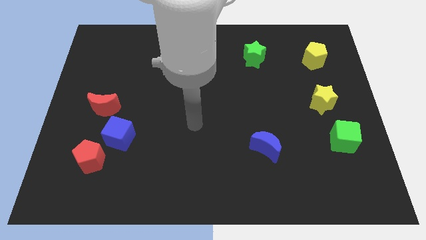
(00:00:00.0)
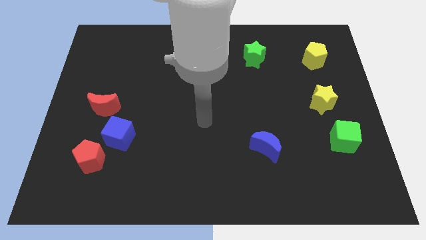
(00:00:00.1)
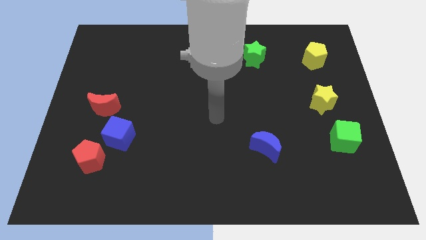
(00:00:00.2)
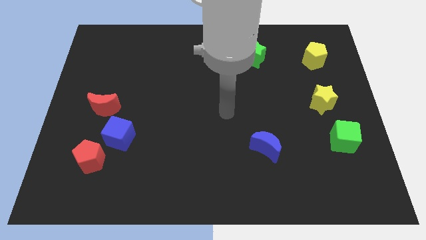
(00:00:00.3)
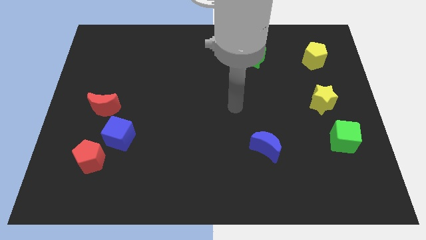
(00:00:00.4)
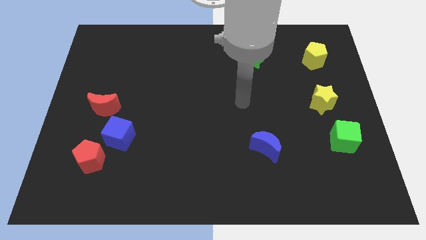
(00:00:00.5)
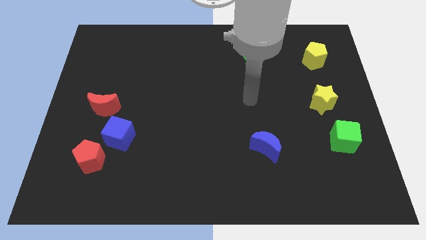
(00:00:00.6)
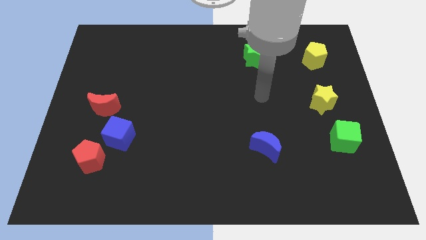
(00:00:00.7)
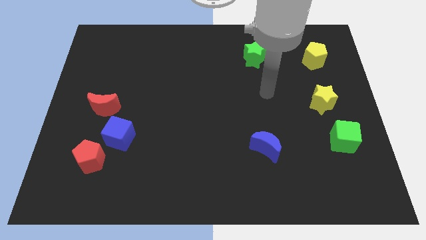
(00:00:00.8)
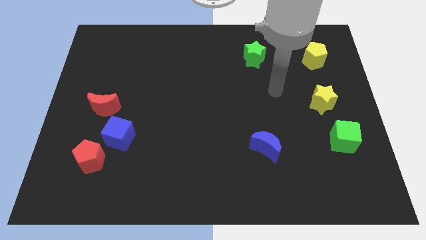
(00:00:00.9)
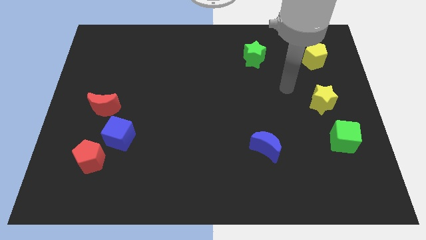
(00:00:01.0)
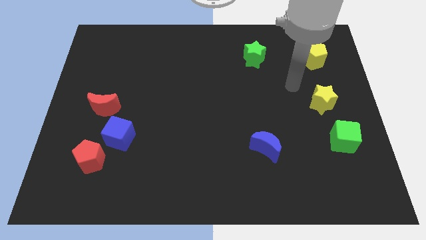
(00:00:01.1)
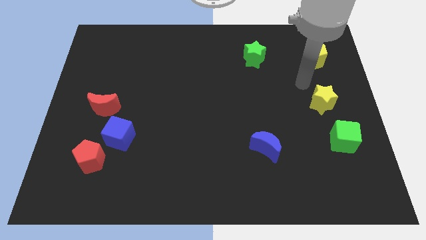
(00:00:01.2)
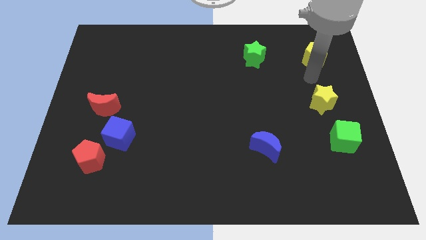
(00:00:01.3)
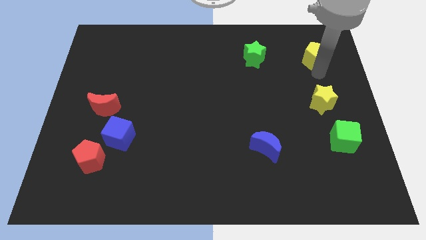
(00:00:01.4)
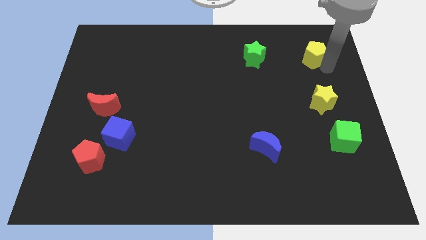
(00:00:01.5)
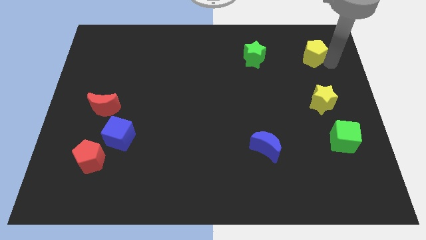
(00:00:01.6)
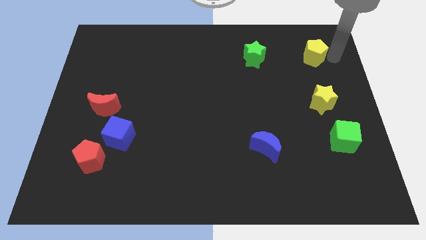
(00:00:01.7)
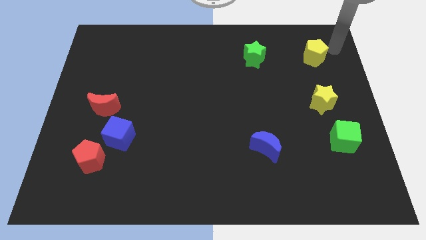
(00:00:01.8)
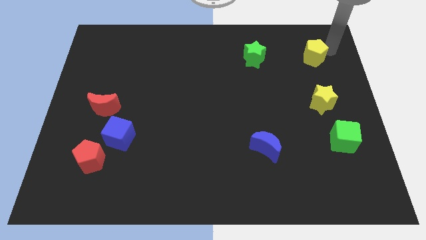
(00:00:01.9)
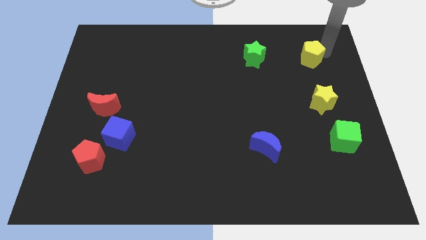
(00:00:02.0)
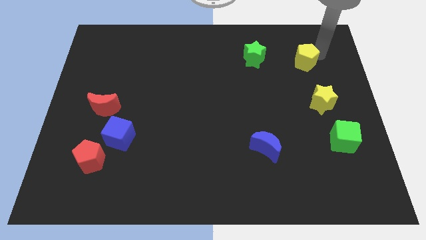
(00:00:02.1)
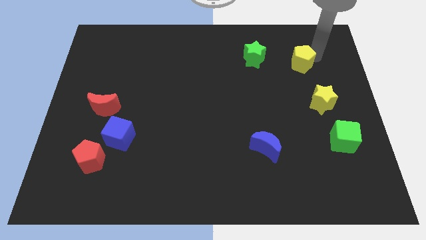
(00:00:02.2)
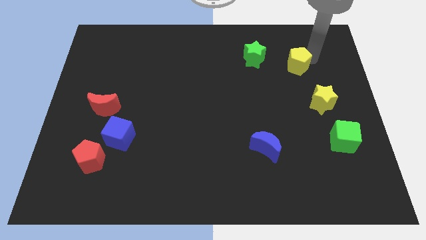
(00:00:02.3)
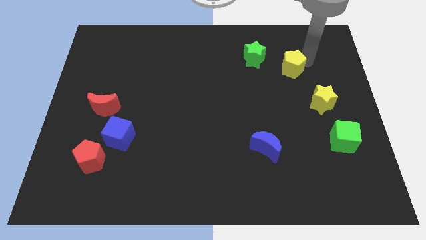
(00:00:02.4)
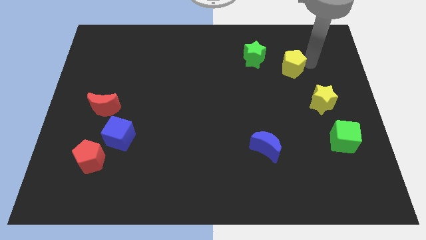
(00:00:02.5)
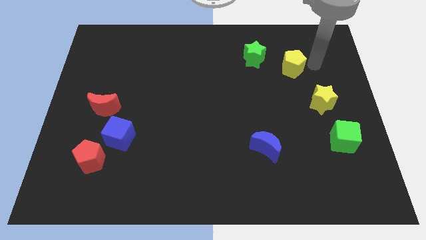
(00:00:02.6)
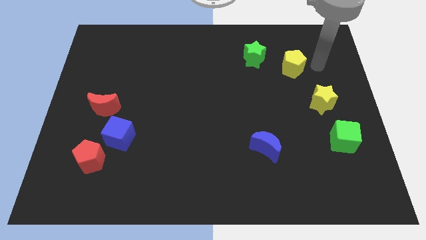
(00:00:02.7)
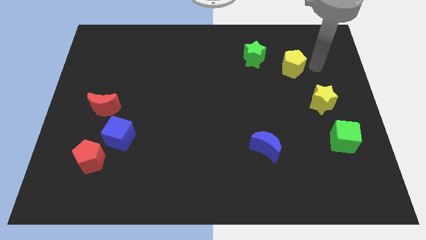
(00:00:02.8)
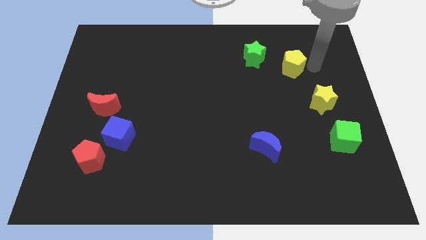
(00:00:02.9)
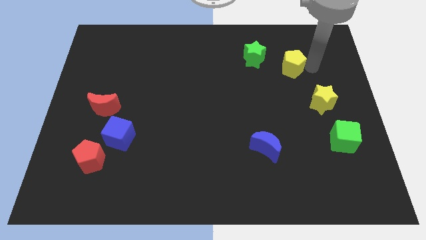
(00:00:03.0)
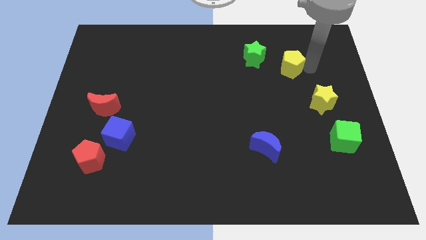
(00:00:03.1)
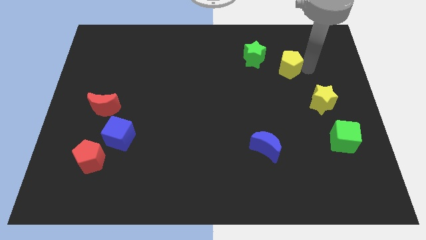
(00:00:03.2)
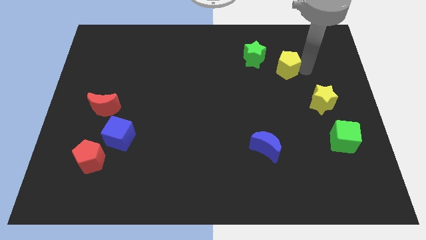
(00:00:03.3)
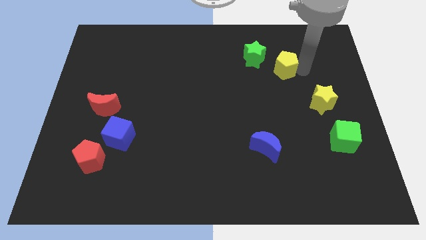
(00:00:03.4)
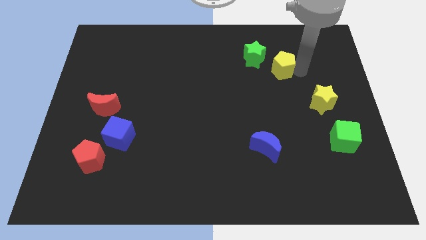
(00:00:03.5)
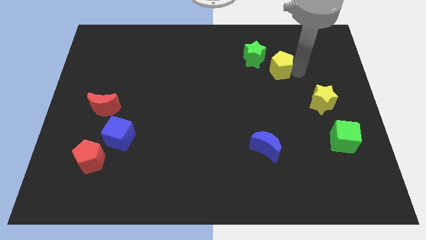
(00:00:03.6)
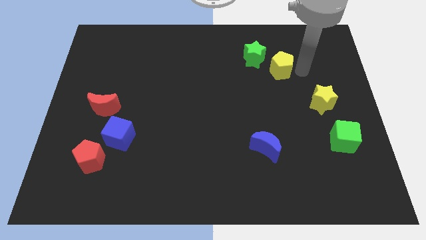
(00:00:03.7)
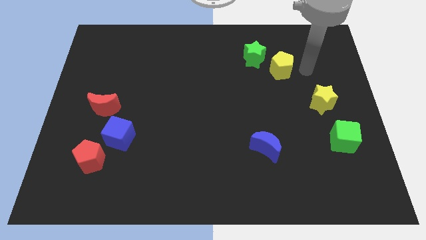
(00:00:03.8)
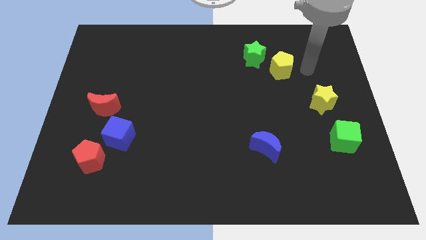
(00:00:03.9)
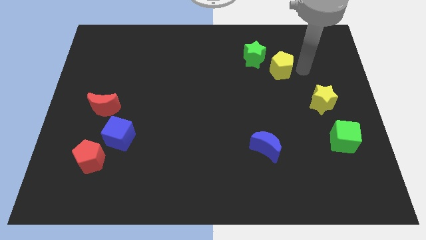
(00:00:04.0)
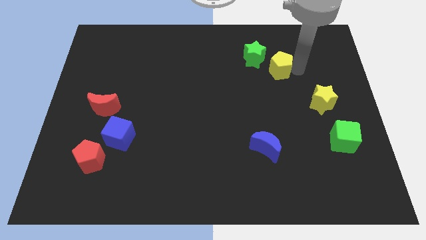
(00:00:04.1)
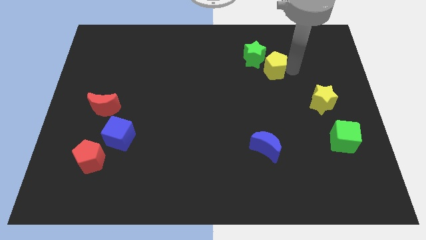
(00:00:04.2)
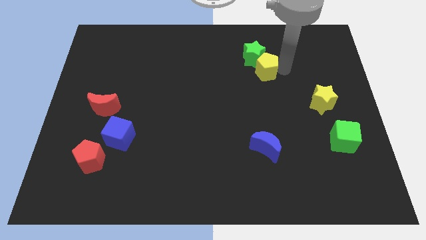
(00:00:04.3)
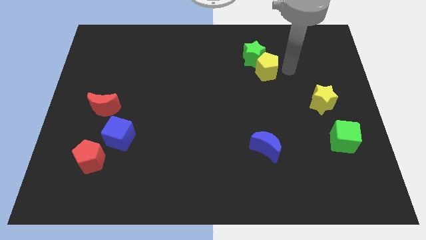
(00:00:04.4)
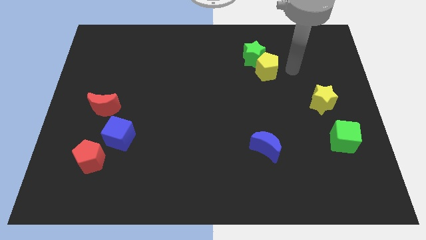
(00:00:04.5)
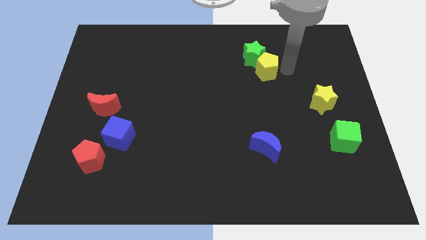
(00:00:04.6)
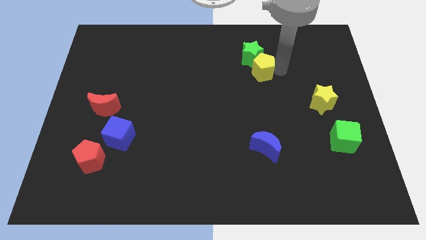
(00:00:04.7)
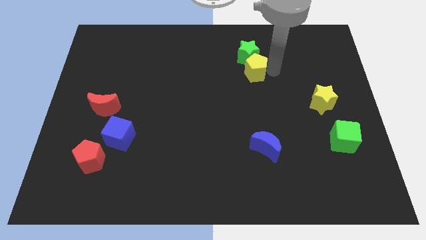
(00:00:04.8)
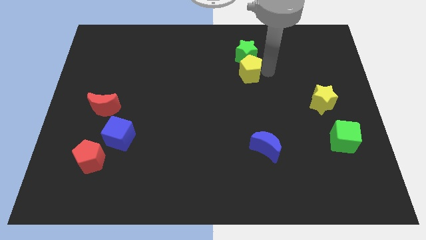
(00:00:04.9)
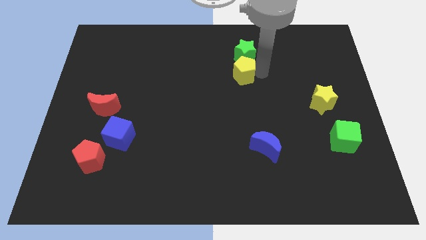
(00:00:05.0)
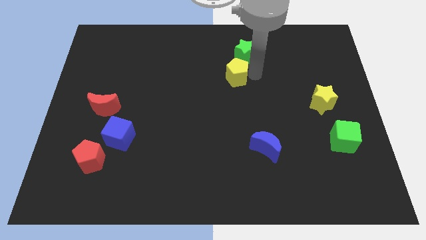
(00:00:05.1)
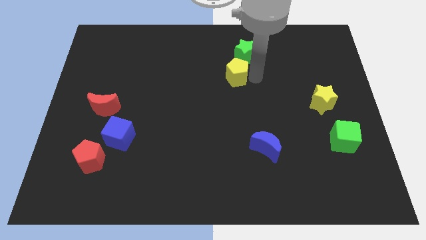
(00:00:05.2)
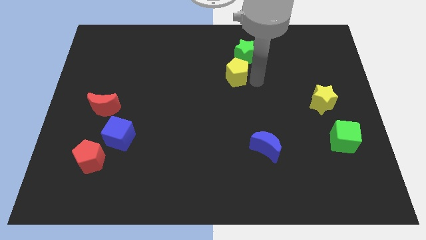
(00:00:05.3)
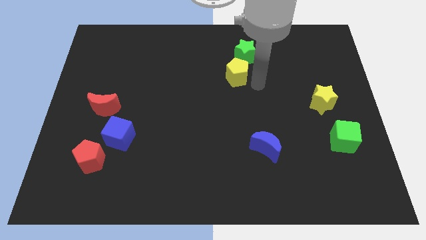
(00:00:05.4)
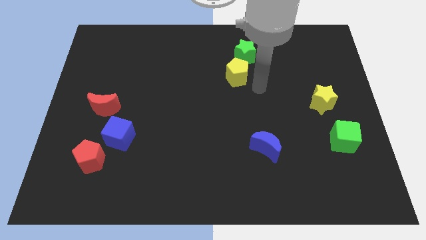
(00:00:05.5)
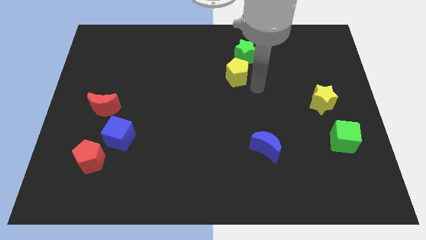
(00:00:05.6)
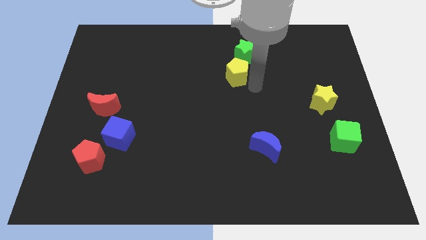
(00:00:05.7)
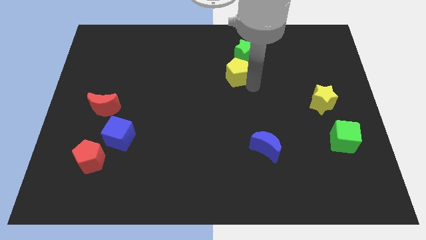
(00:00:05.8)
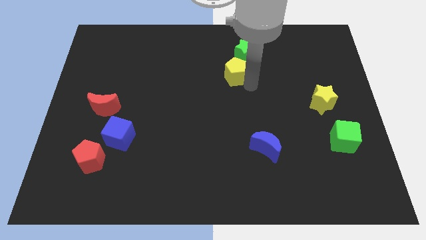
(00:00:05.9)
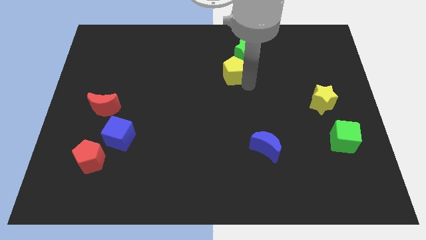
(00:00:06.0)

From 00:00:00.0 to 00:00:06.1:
move the yellow pentagon left

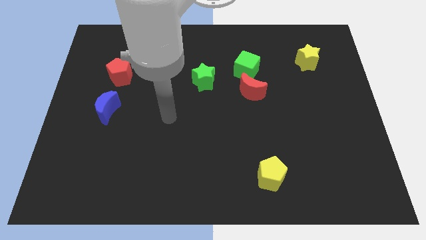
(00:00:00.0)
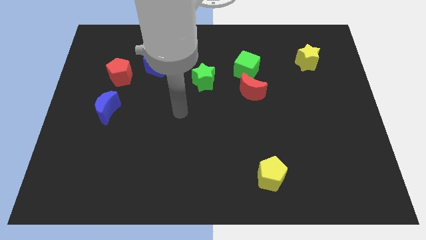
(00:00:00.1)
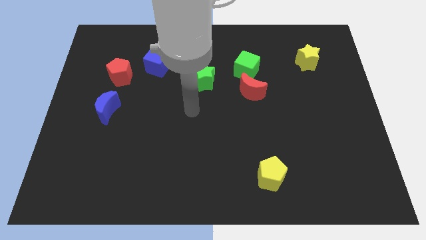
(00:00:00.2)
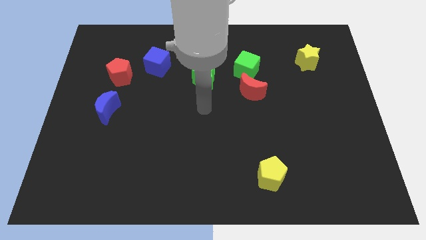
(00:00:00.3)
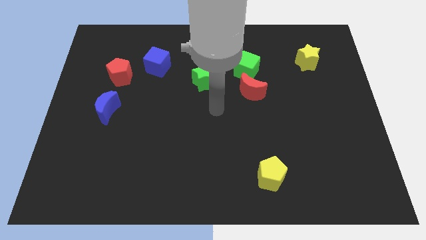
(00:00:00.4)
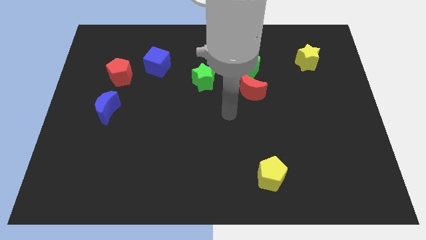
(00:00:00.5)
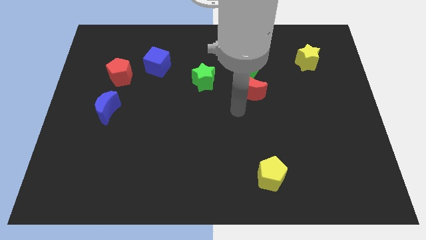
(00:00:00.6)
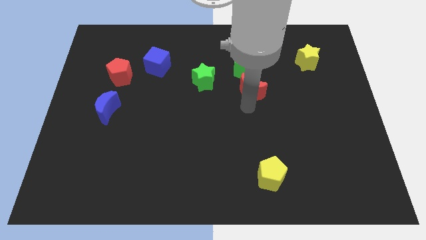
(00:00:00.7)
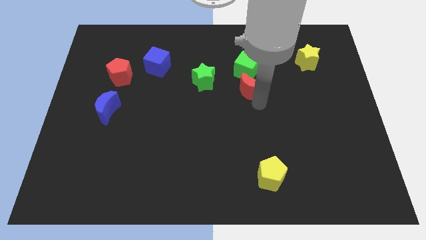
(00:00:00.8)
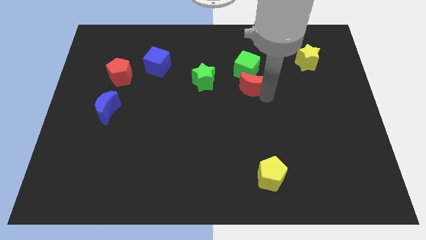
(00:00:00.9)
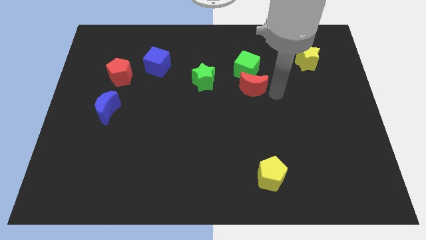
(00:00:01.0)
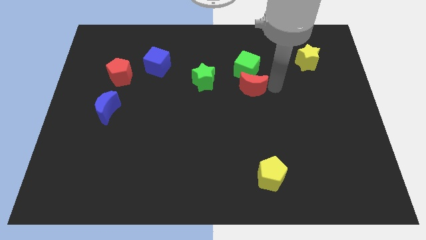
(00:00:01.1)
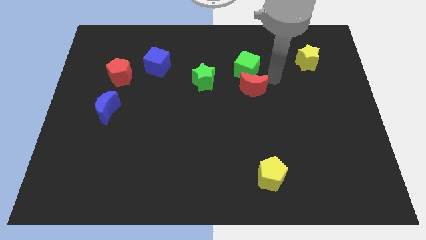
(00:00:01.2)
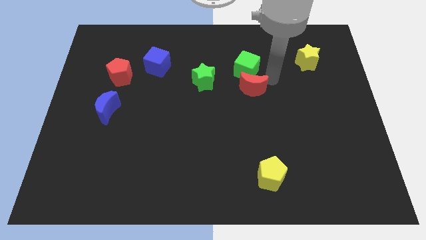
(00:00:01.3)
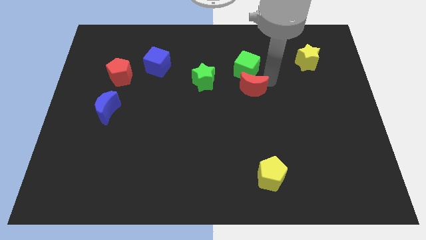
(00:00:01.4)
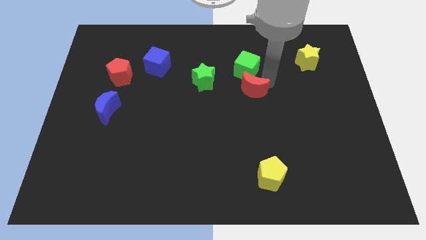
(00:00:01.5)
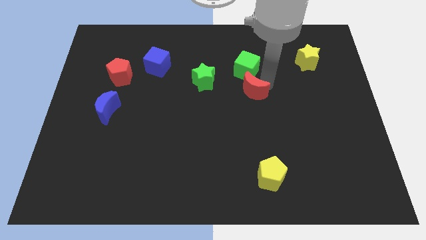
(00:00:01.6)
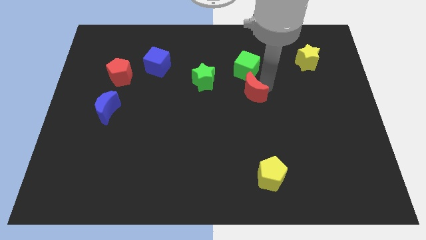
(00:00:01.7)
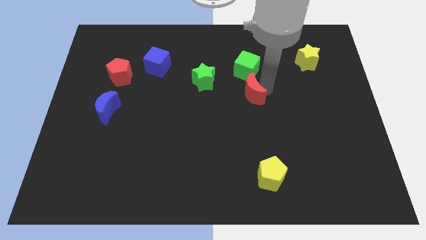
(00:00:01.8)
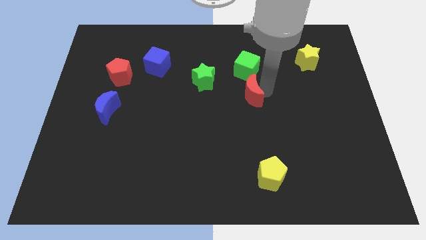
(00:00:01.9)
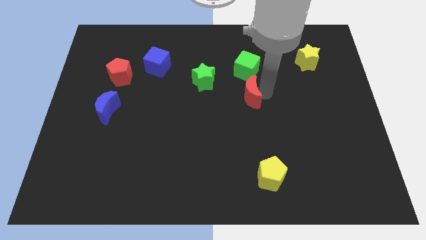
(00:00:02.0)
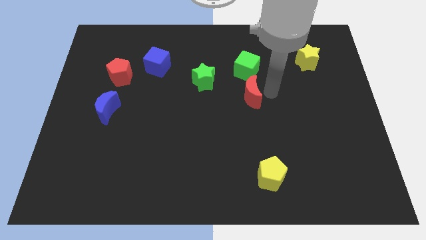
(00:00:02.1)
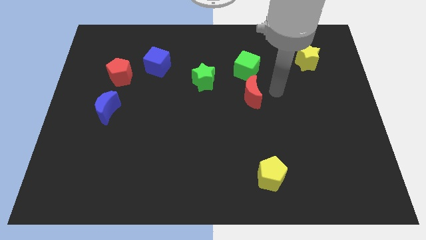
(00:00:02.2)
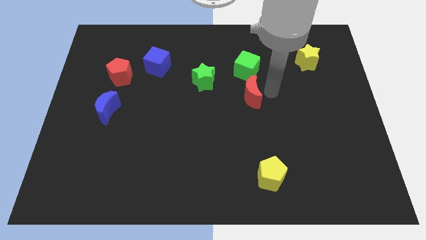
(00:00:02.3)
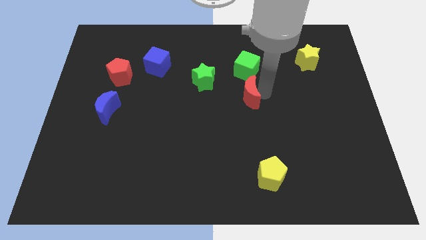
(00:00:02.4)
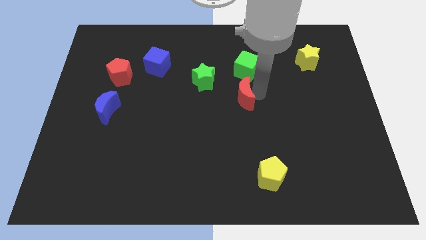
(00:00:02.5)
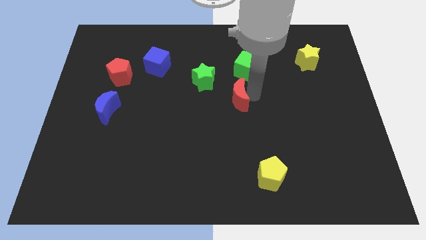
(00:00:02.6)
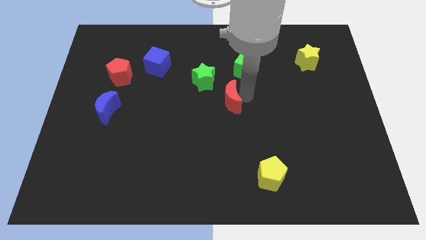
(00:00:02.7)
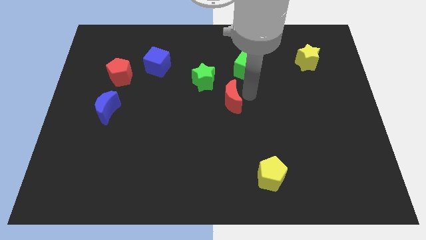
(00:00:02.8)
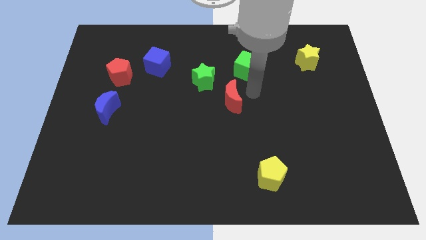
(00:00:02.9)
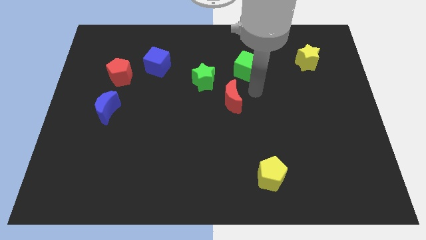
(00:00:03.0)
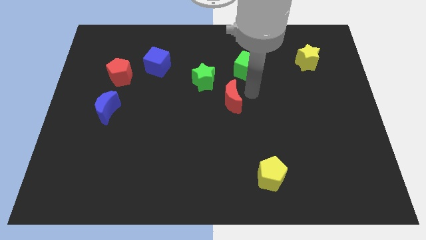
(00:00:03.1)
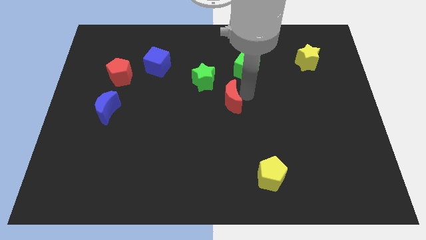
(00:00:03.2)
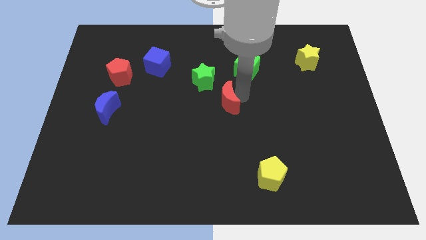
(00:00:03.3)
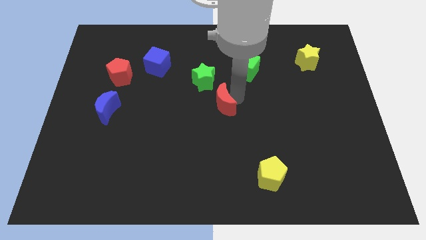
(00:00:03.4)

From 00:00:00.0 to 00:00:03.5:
slide the red moon a bit downwards and then left
